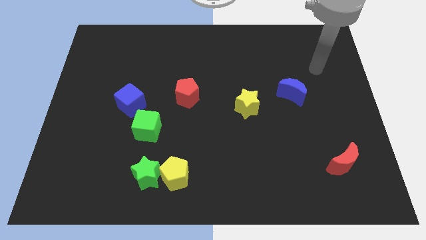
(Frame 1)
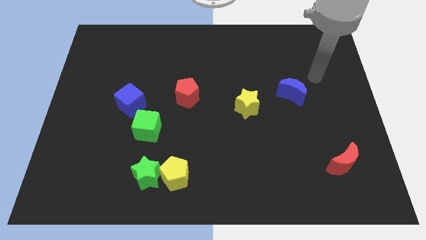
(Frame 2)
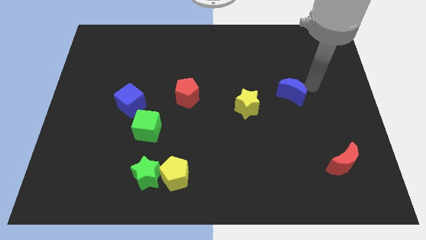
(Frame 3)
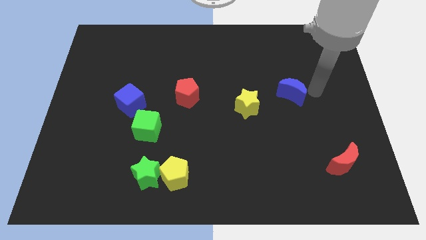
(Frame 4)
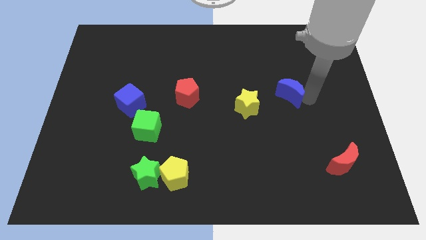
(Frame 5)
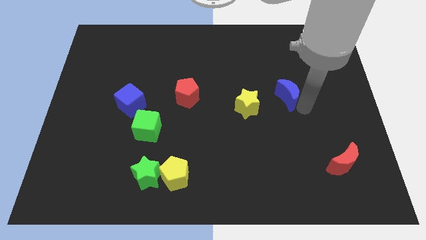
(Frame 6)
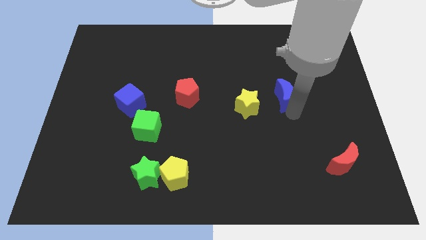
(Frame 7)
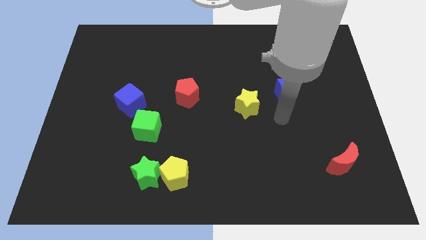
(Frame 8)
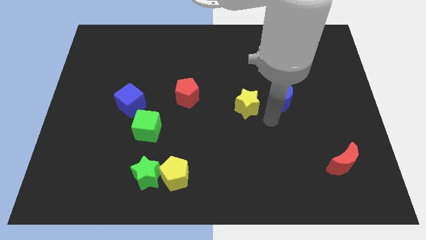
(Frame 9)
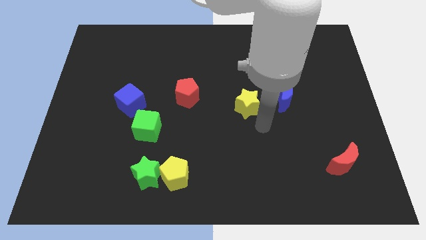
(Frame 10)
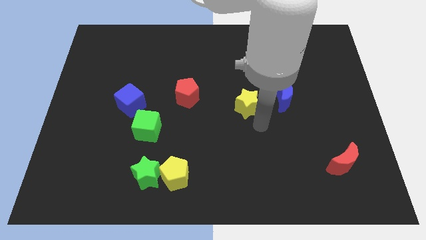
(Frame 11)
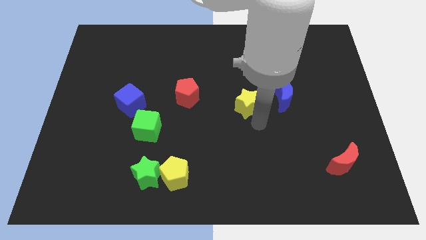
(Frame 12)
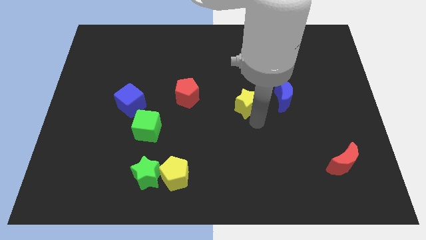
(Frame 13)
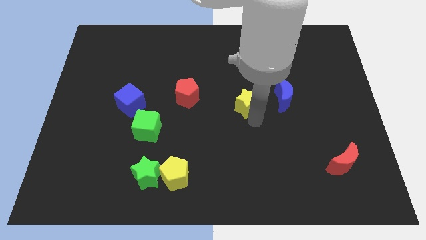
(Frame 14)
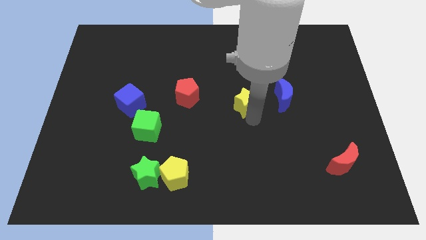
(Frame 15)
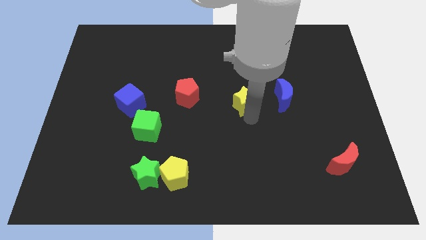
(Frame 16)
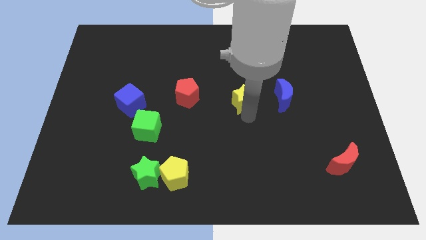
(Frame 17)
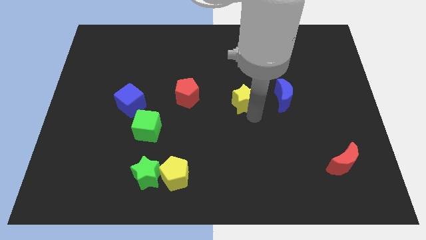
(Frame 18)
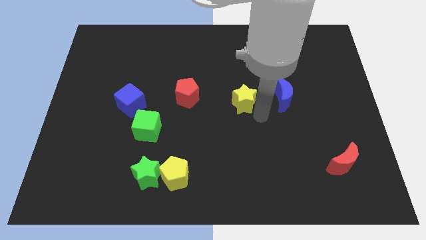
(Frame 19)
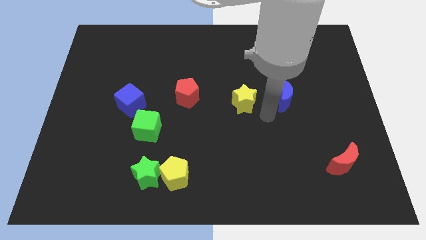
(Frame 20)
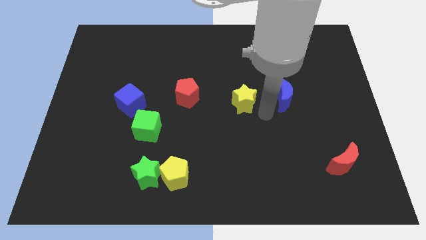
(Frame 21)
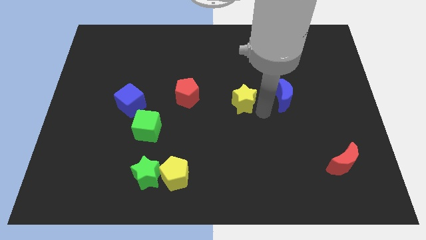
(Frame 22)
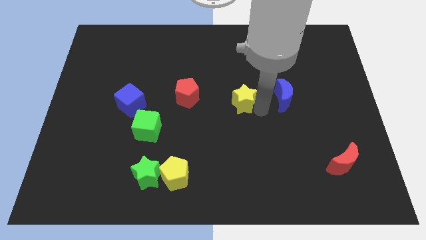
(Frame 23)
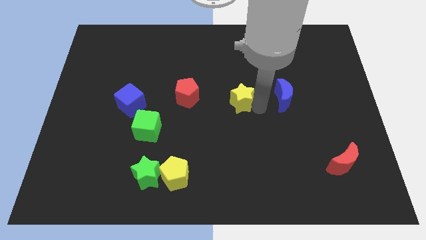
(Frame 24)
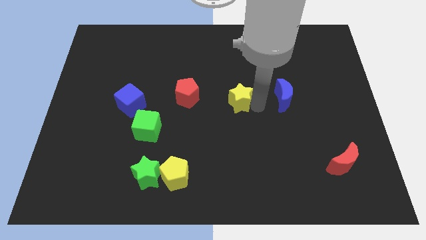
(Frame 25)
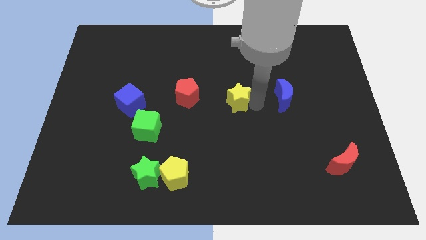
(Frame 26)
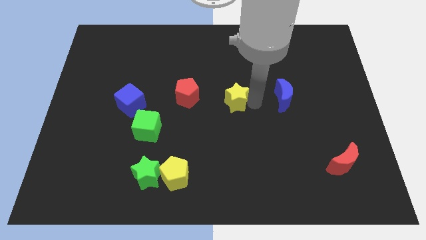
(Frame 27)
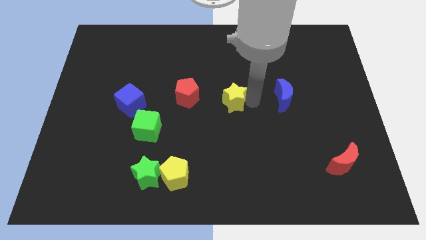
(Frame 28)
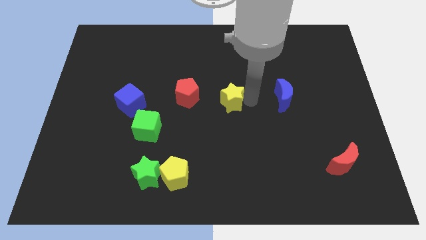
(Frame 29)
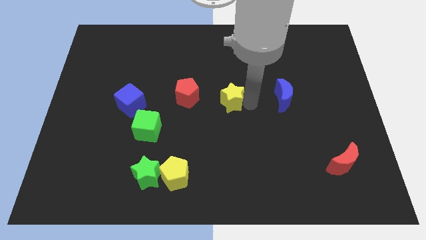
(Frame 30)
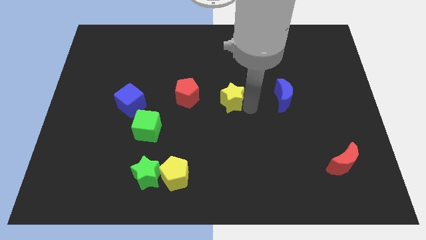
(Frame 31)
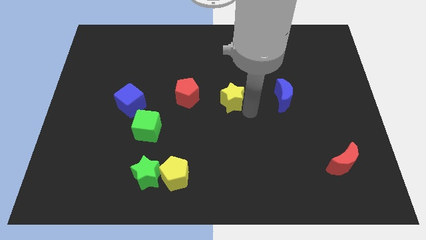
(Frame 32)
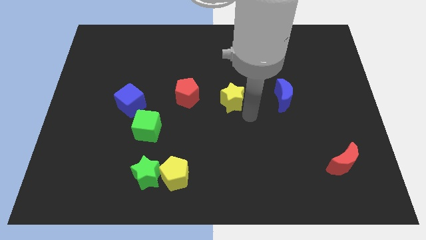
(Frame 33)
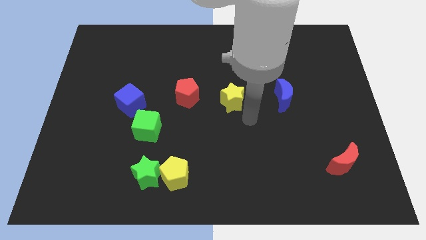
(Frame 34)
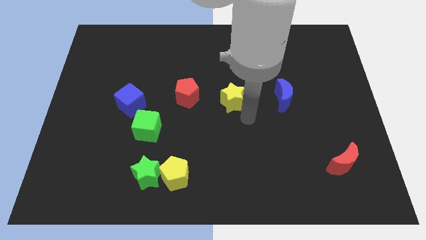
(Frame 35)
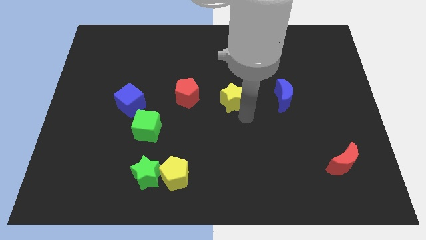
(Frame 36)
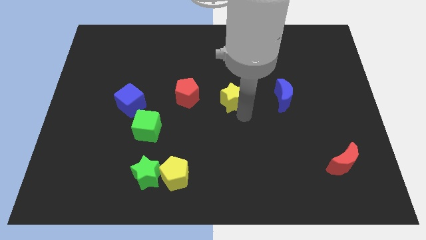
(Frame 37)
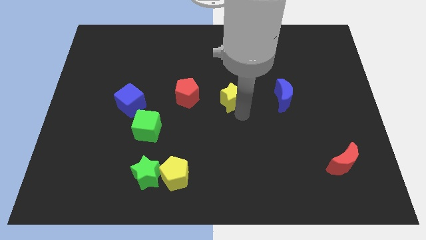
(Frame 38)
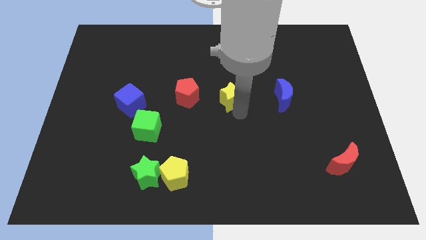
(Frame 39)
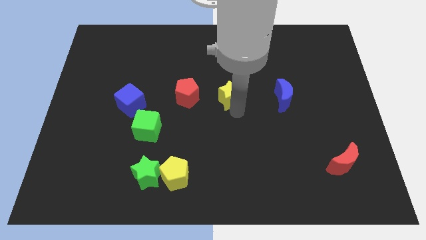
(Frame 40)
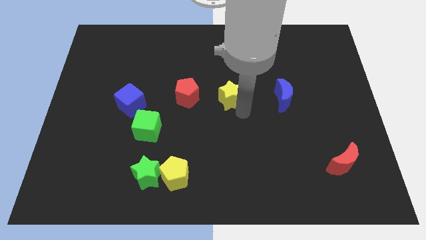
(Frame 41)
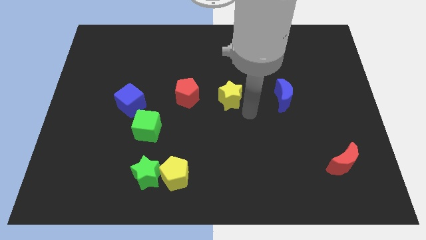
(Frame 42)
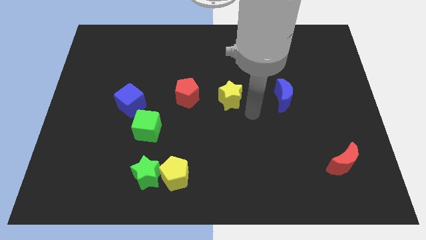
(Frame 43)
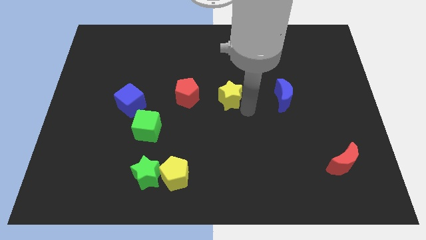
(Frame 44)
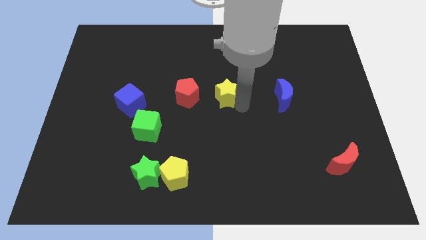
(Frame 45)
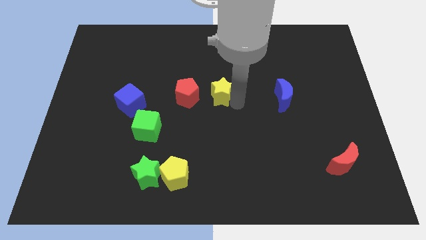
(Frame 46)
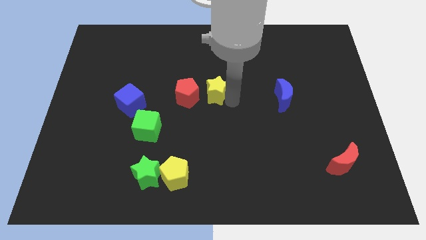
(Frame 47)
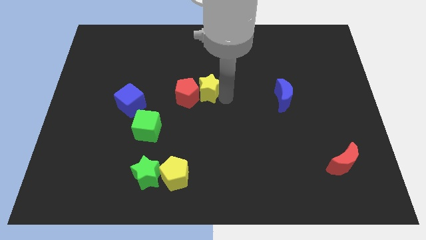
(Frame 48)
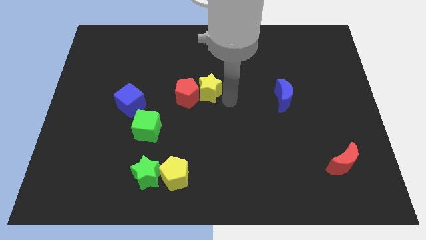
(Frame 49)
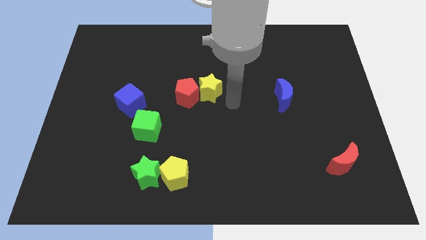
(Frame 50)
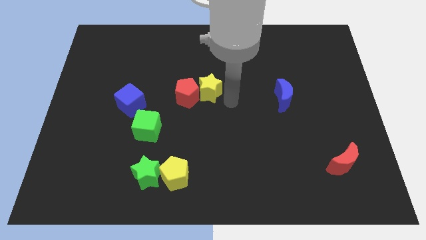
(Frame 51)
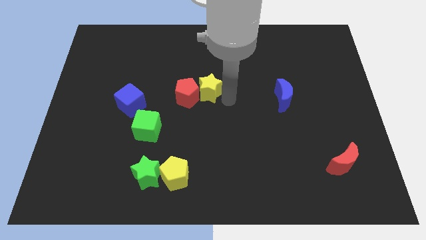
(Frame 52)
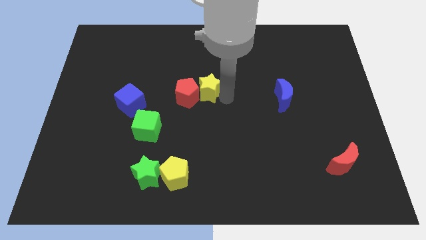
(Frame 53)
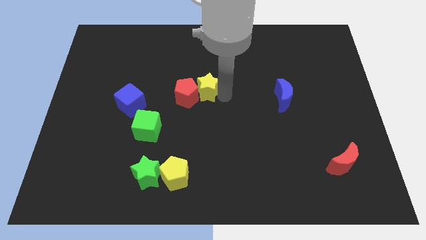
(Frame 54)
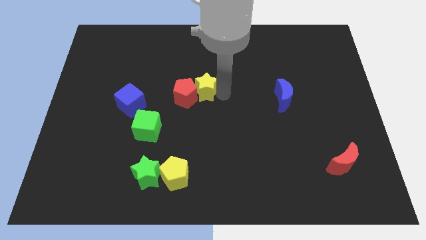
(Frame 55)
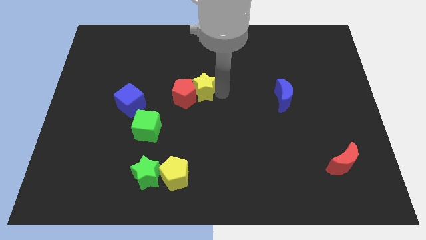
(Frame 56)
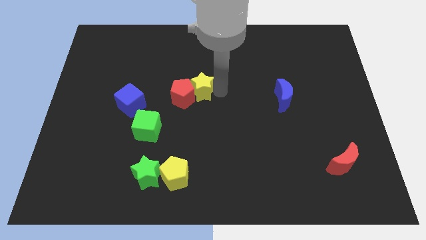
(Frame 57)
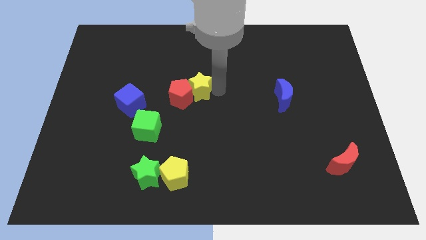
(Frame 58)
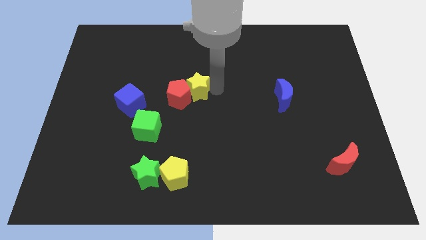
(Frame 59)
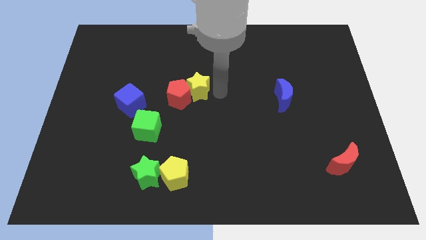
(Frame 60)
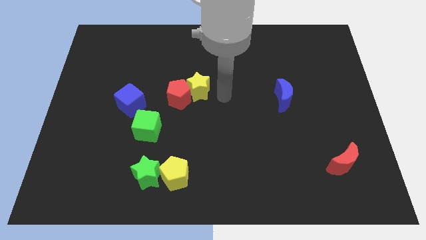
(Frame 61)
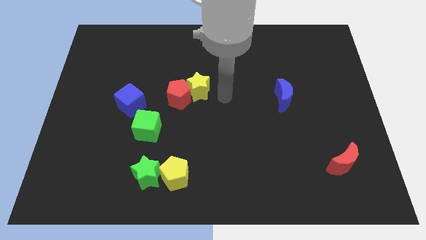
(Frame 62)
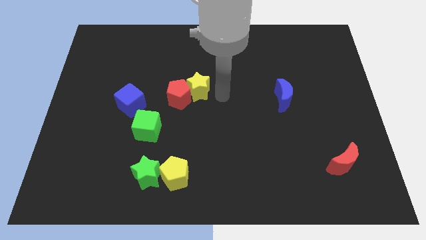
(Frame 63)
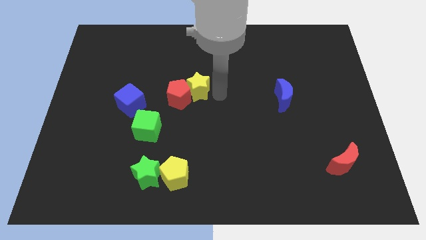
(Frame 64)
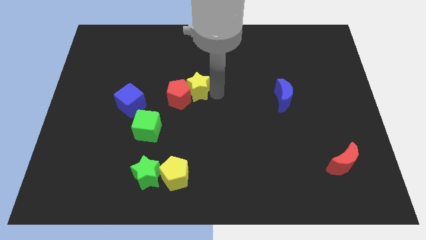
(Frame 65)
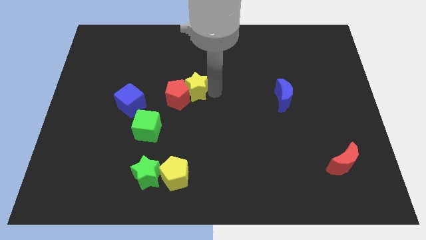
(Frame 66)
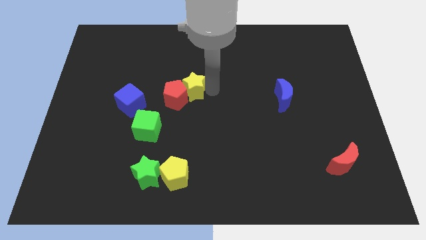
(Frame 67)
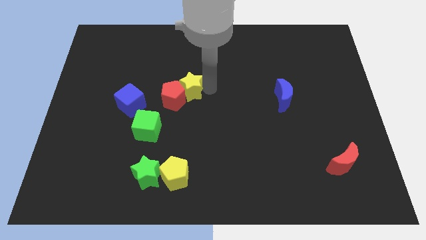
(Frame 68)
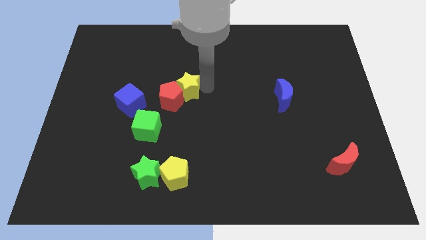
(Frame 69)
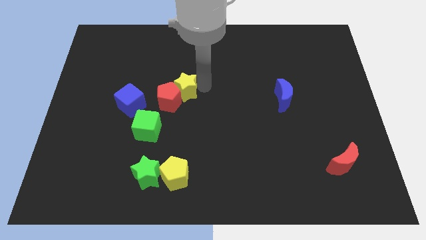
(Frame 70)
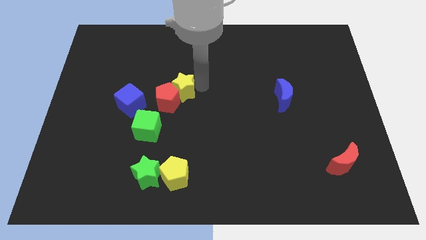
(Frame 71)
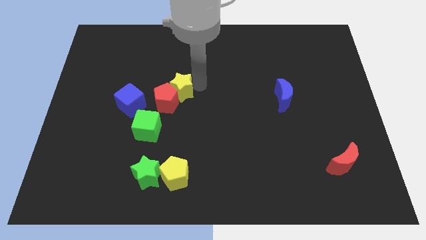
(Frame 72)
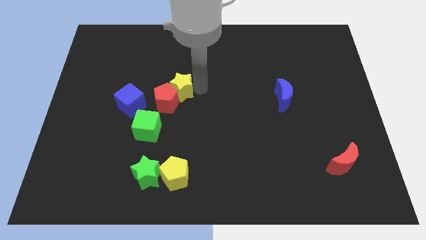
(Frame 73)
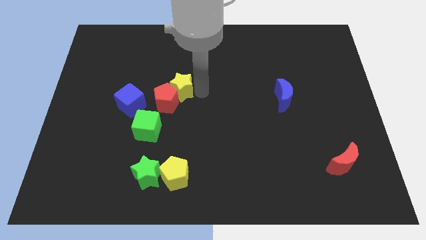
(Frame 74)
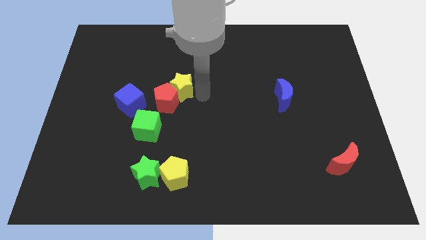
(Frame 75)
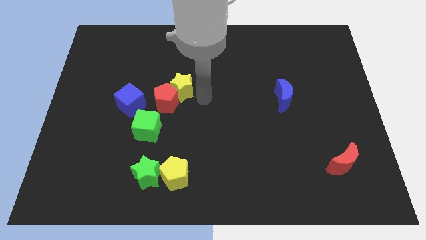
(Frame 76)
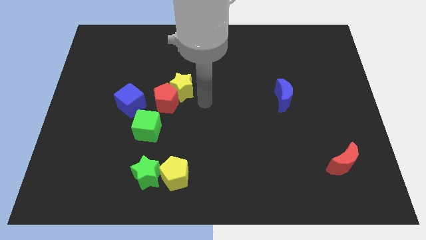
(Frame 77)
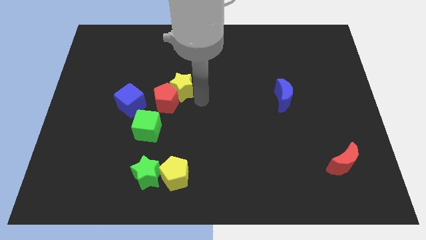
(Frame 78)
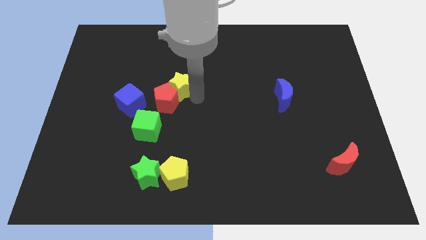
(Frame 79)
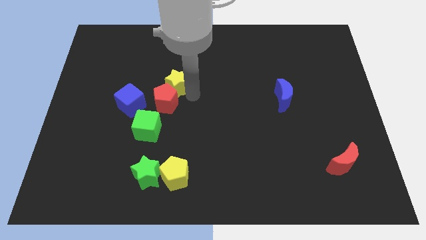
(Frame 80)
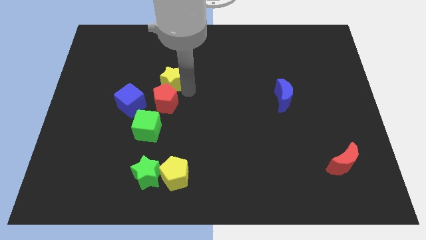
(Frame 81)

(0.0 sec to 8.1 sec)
move the yellow star diagonally up and to the right of the blue cube
